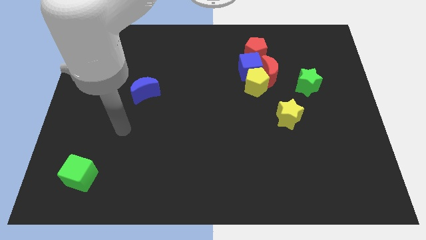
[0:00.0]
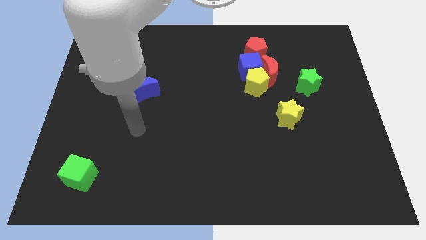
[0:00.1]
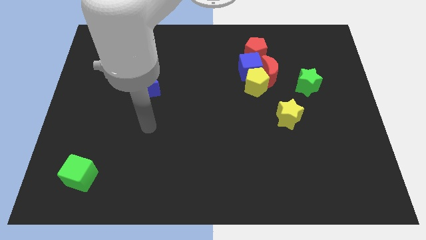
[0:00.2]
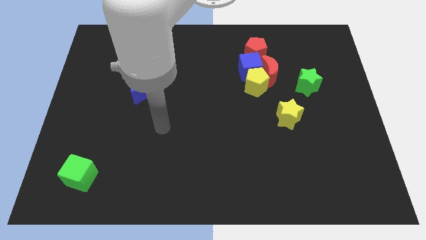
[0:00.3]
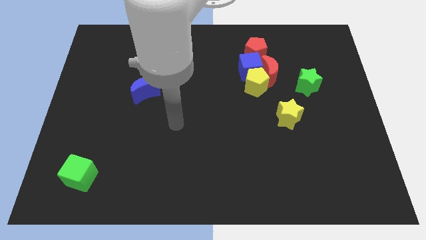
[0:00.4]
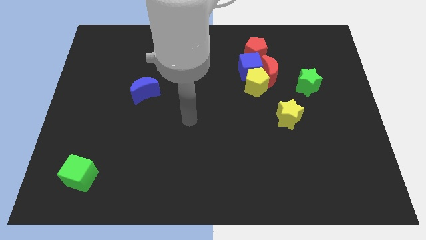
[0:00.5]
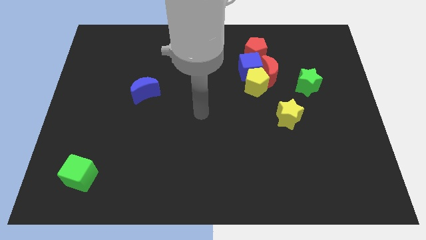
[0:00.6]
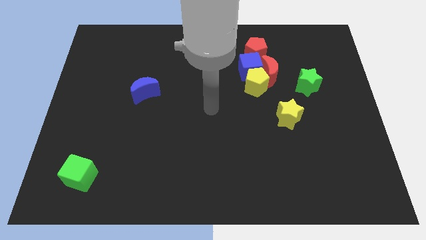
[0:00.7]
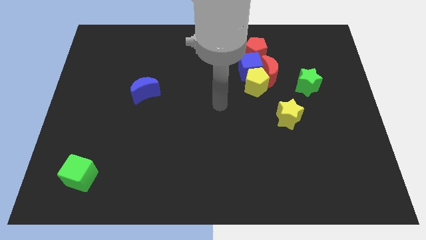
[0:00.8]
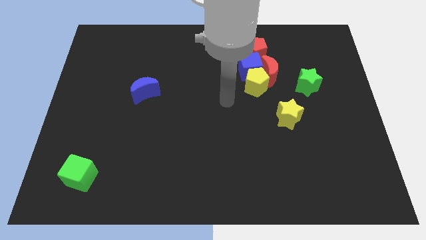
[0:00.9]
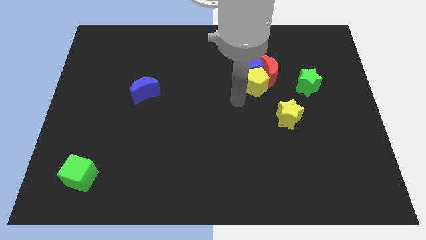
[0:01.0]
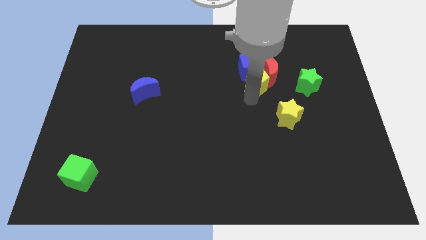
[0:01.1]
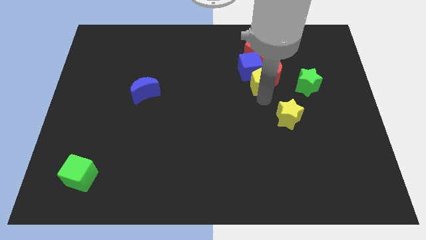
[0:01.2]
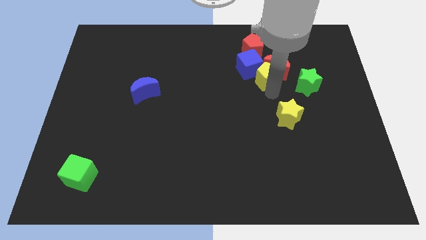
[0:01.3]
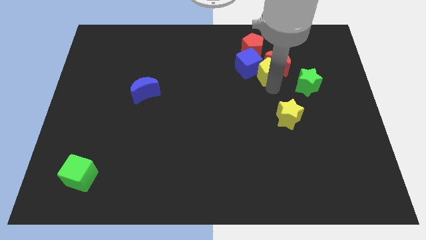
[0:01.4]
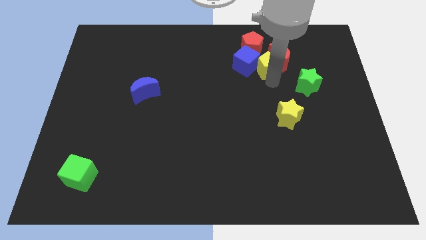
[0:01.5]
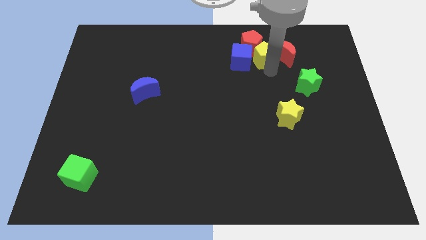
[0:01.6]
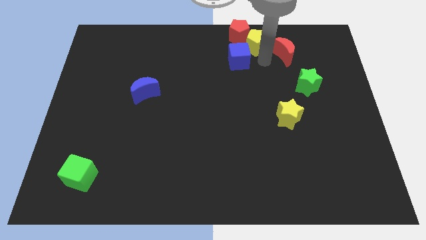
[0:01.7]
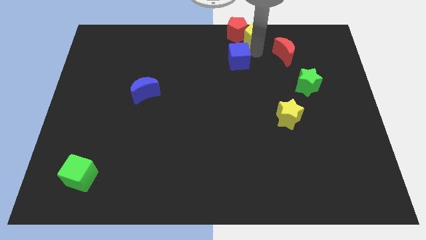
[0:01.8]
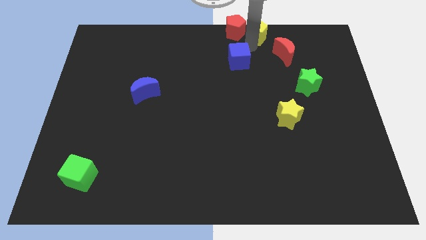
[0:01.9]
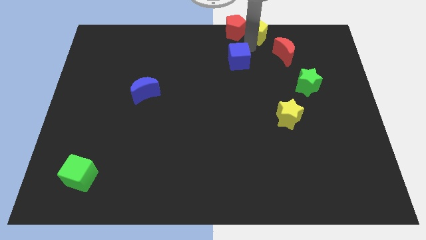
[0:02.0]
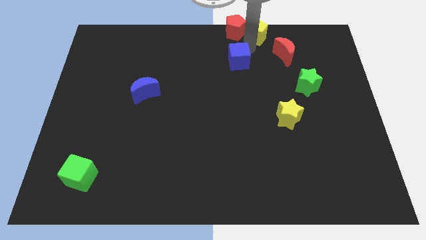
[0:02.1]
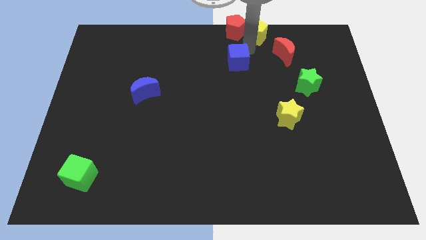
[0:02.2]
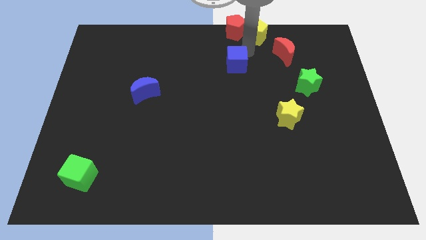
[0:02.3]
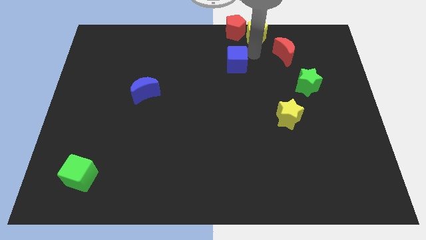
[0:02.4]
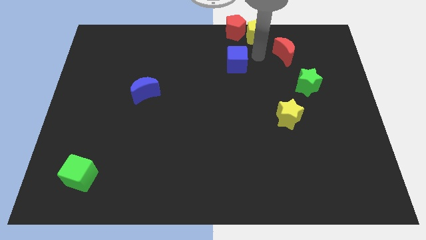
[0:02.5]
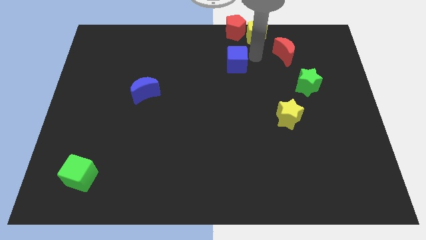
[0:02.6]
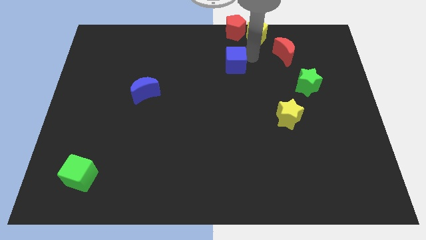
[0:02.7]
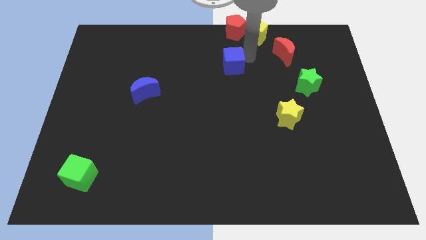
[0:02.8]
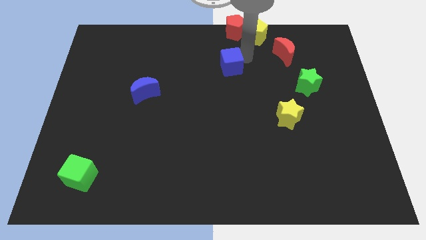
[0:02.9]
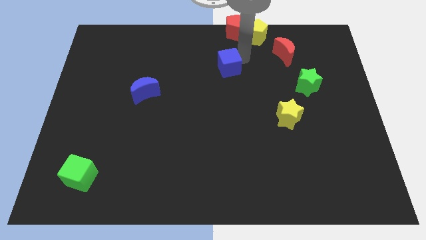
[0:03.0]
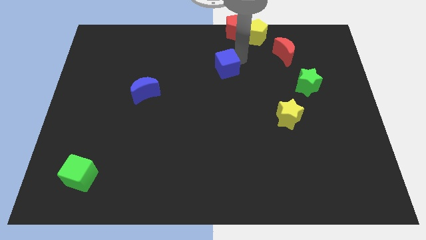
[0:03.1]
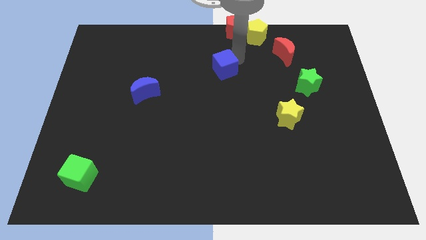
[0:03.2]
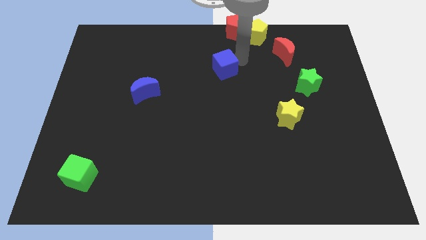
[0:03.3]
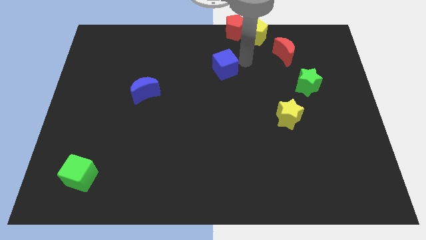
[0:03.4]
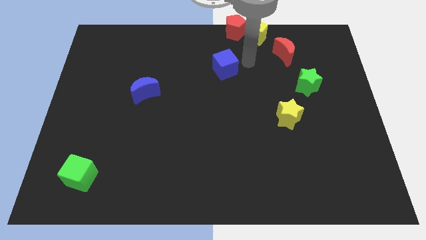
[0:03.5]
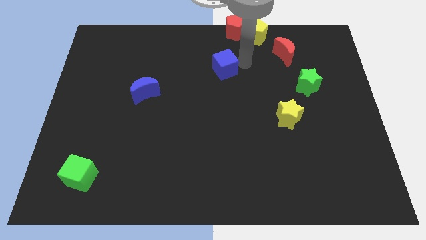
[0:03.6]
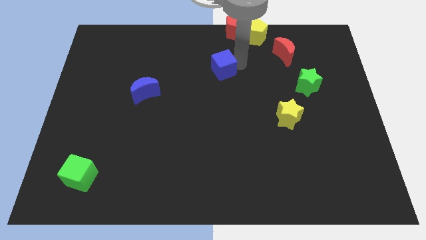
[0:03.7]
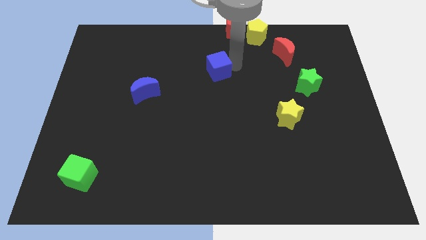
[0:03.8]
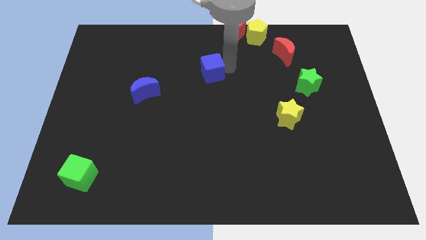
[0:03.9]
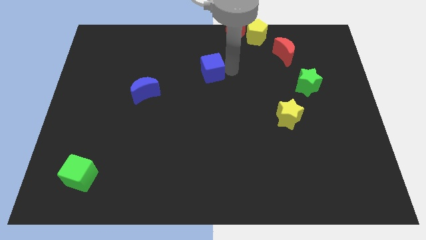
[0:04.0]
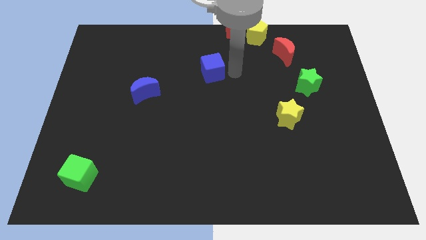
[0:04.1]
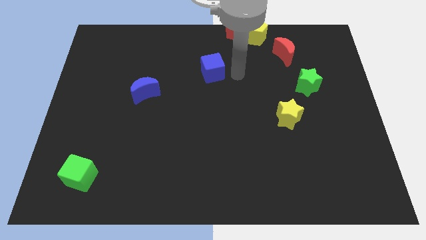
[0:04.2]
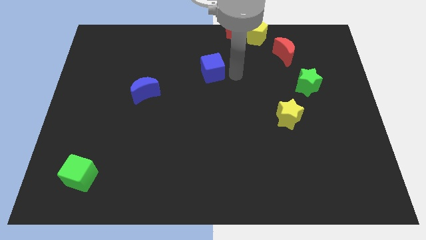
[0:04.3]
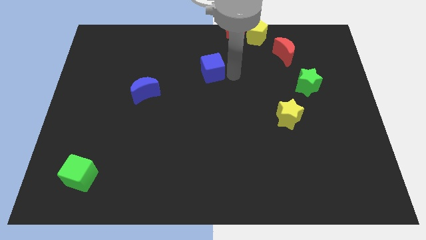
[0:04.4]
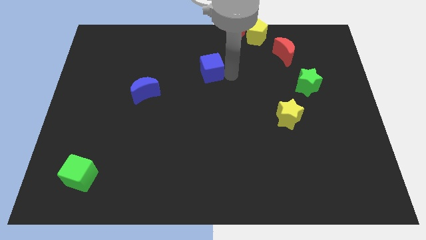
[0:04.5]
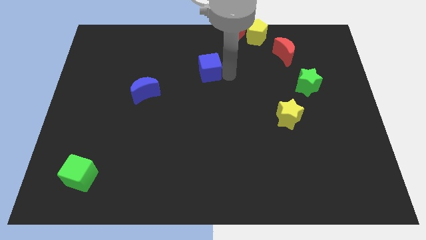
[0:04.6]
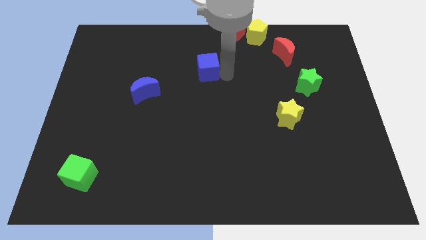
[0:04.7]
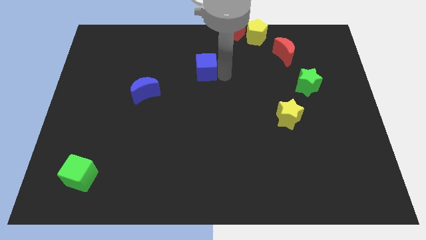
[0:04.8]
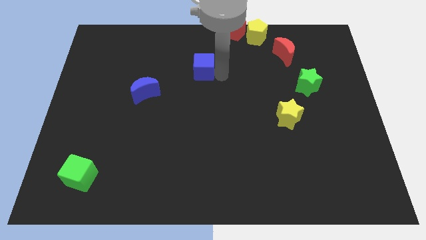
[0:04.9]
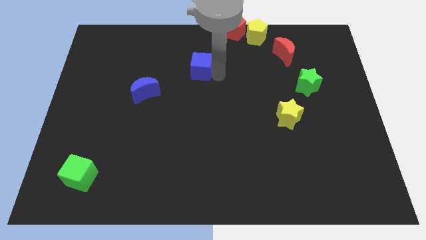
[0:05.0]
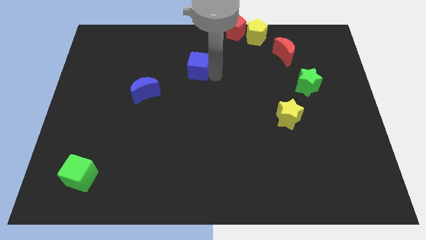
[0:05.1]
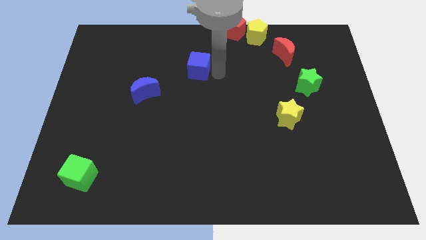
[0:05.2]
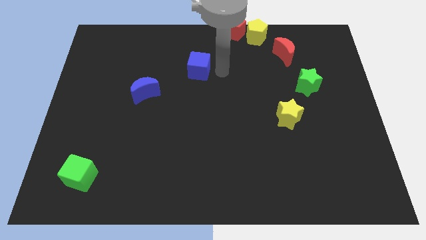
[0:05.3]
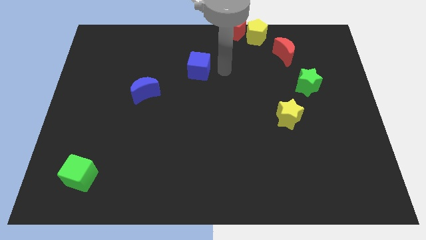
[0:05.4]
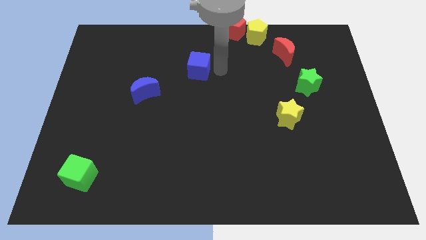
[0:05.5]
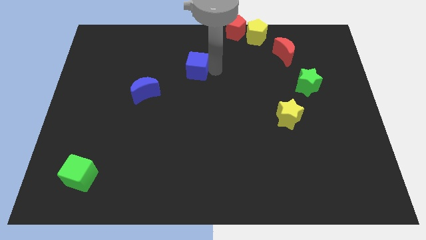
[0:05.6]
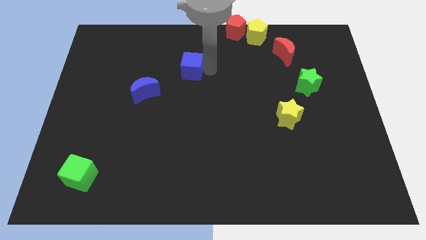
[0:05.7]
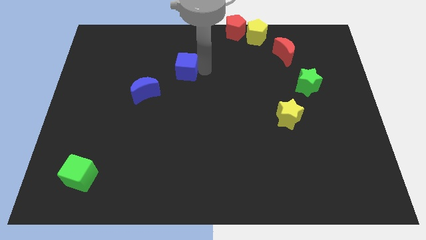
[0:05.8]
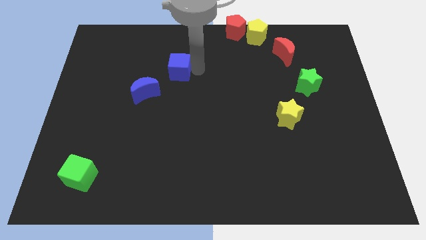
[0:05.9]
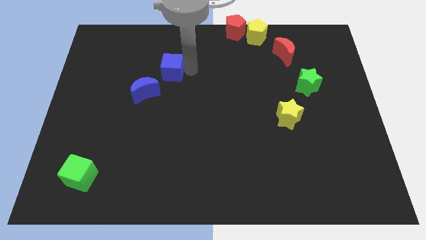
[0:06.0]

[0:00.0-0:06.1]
push the blue cube to the left

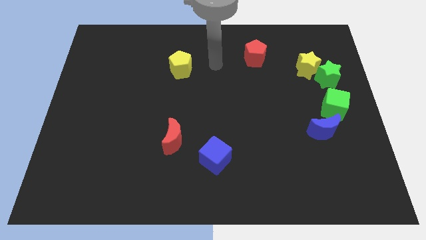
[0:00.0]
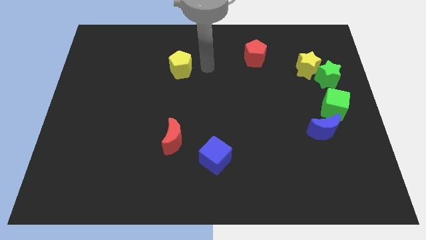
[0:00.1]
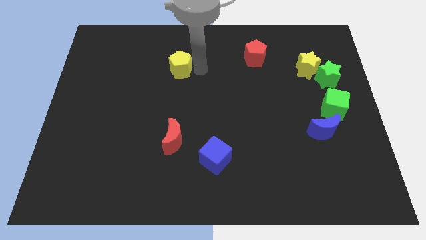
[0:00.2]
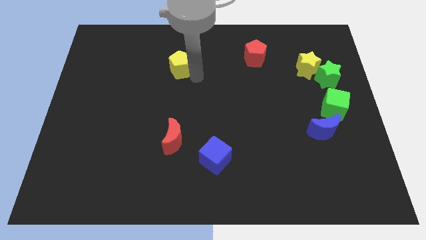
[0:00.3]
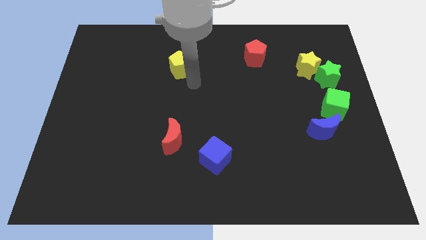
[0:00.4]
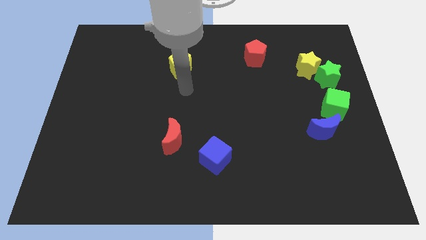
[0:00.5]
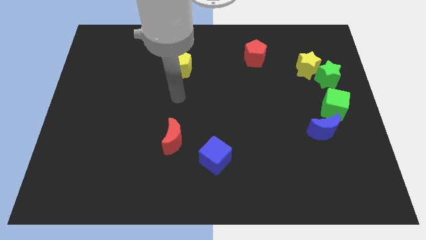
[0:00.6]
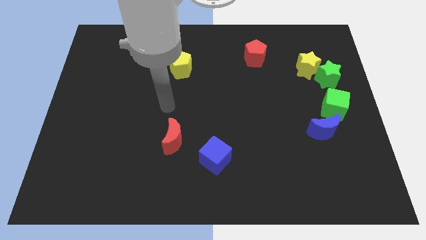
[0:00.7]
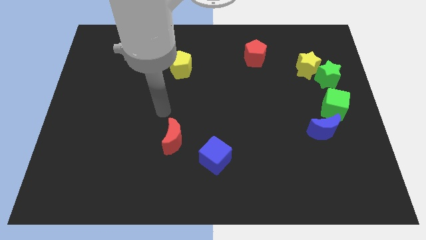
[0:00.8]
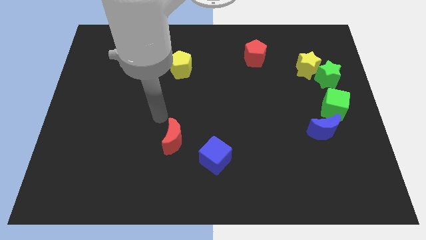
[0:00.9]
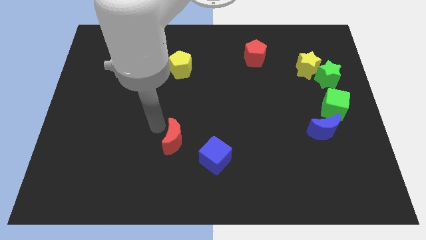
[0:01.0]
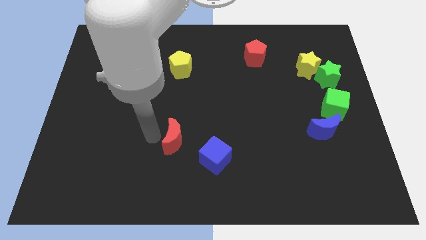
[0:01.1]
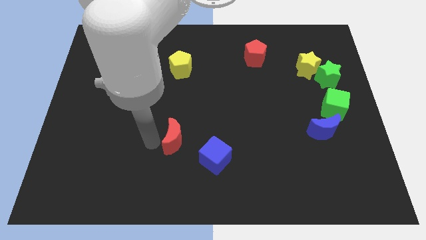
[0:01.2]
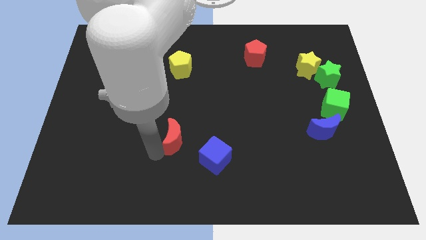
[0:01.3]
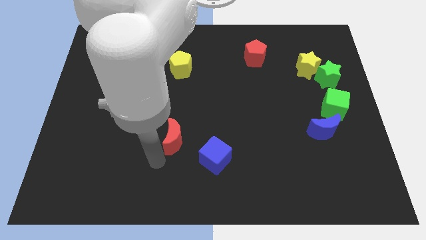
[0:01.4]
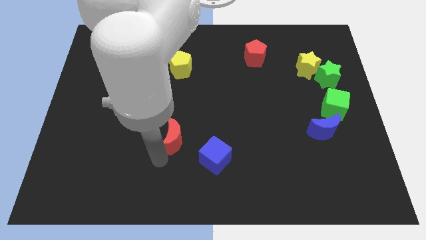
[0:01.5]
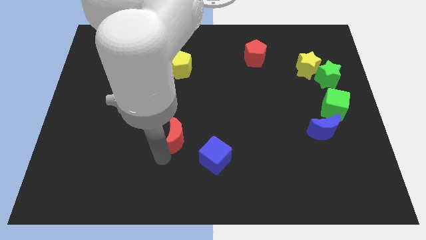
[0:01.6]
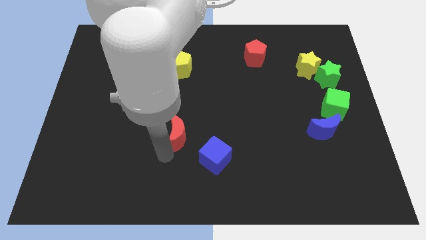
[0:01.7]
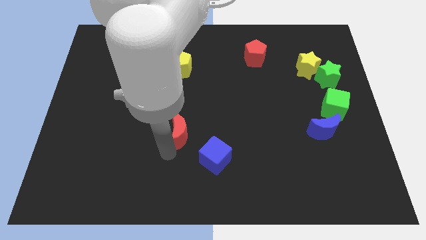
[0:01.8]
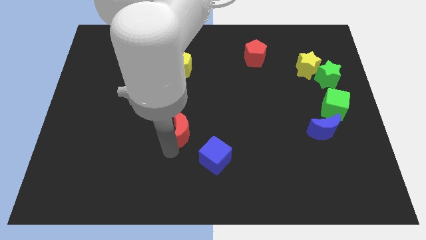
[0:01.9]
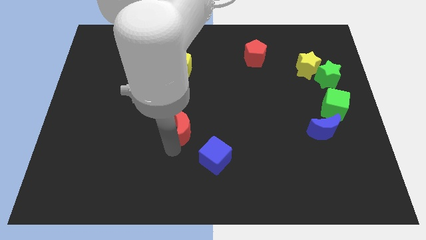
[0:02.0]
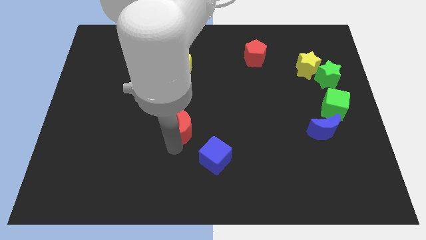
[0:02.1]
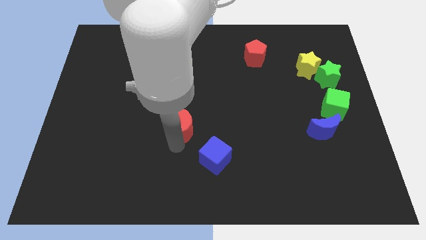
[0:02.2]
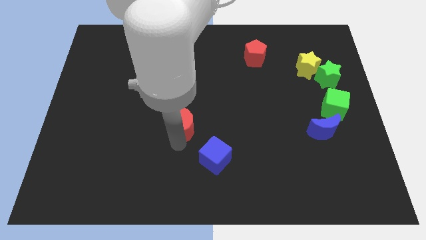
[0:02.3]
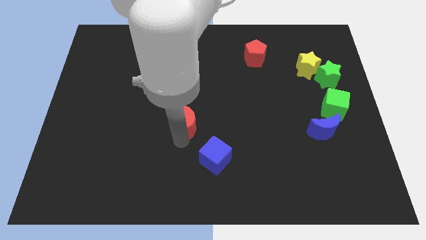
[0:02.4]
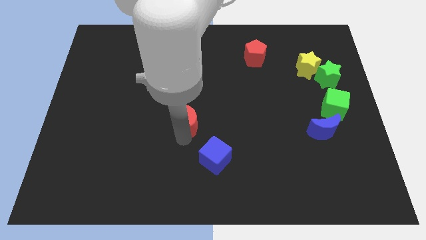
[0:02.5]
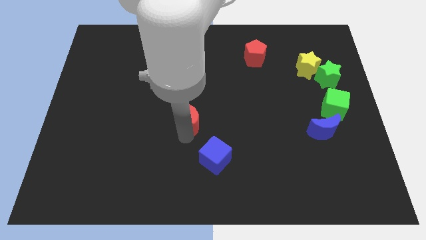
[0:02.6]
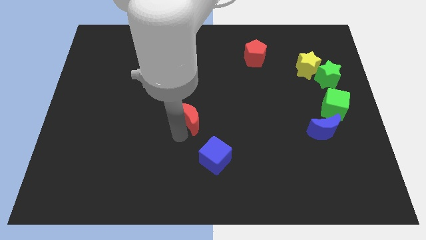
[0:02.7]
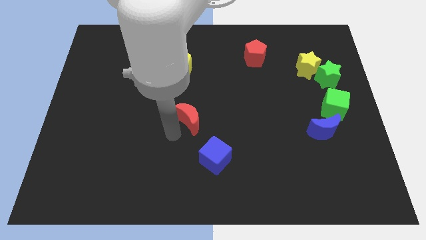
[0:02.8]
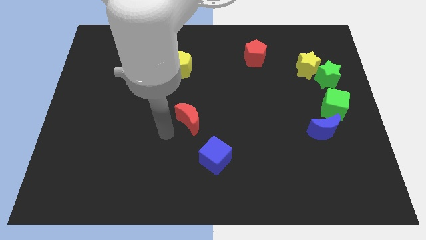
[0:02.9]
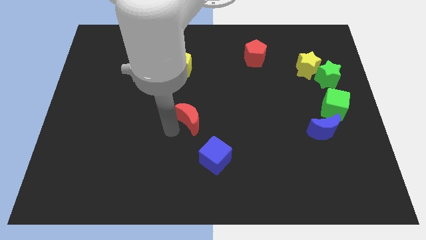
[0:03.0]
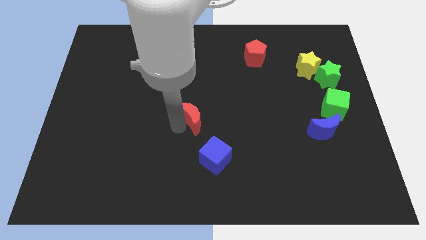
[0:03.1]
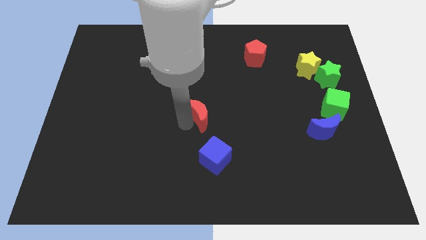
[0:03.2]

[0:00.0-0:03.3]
slightly move the red moon upwards and to the right diagonally
